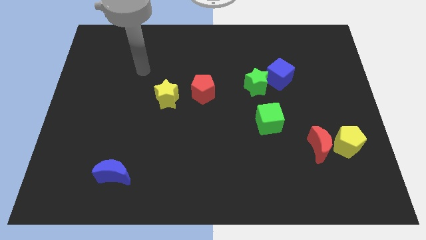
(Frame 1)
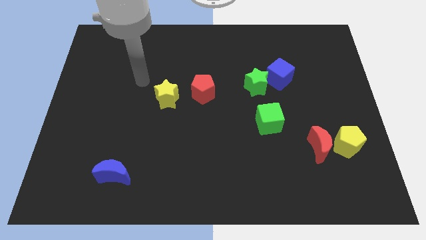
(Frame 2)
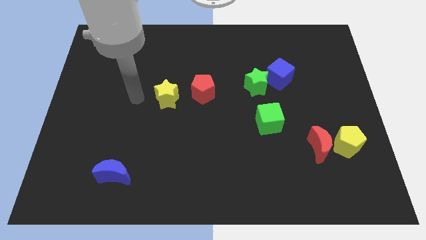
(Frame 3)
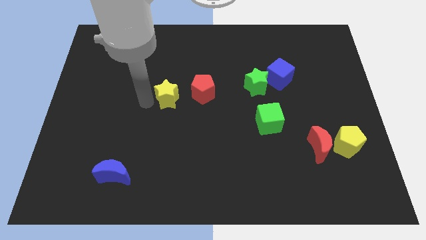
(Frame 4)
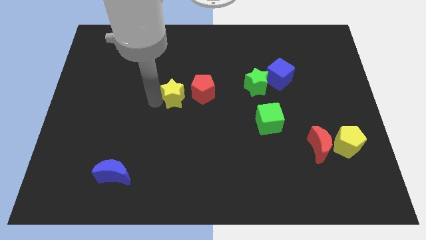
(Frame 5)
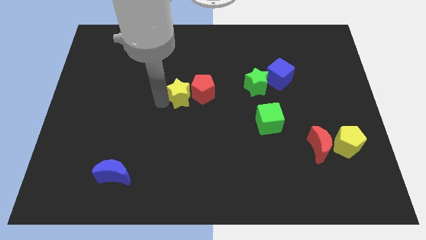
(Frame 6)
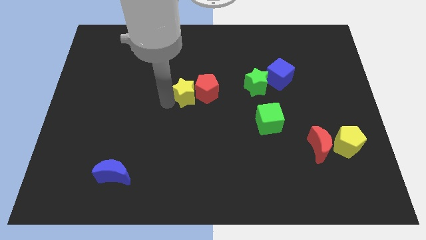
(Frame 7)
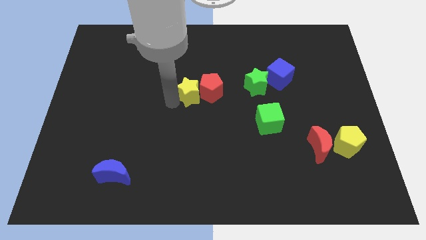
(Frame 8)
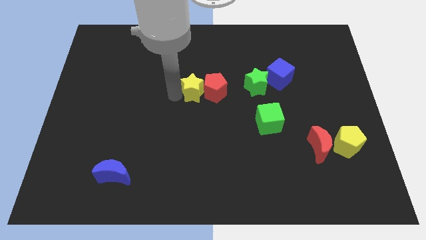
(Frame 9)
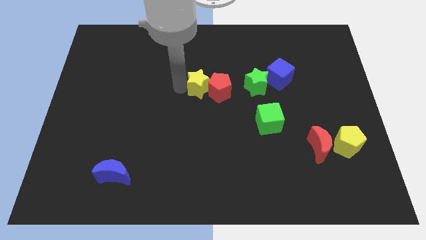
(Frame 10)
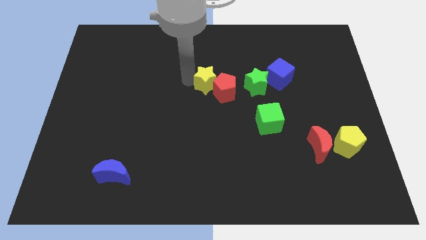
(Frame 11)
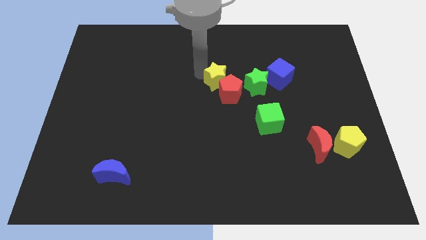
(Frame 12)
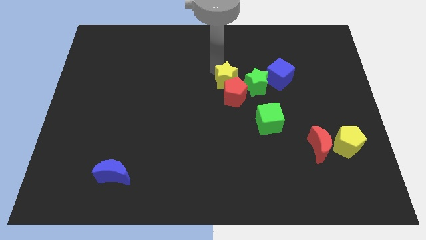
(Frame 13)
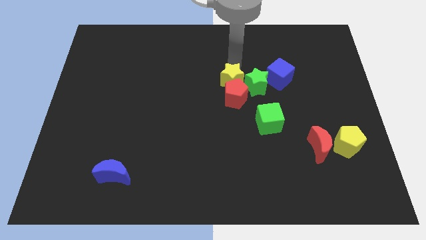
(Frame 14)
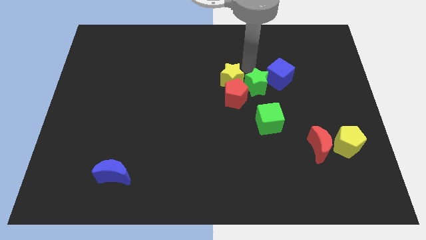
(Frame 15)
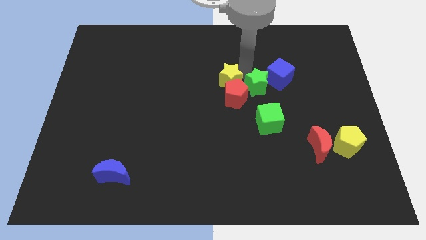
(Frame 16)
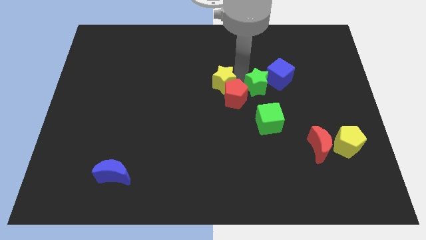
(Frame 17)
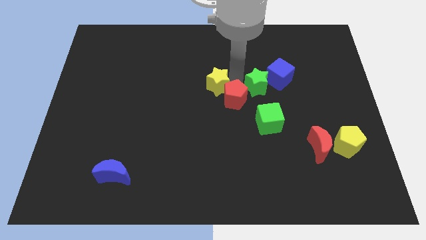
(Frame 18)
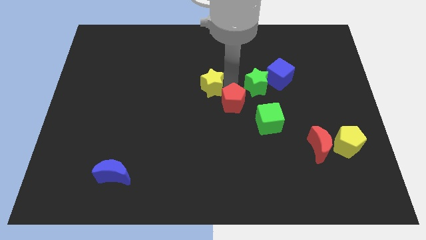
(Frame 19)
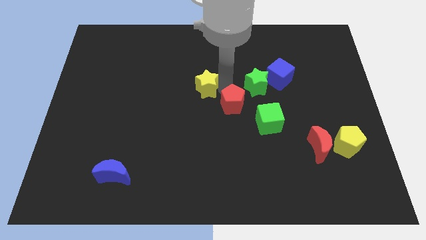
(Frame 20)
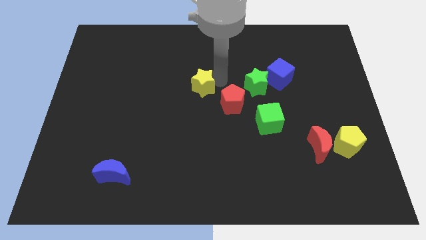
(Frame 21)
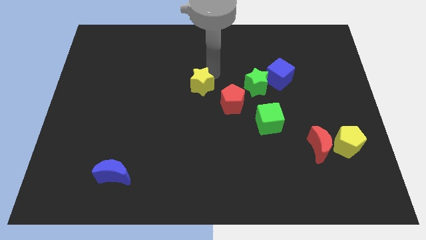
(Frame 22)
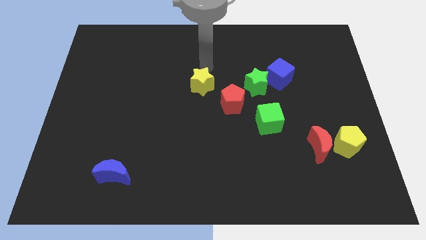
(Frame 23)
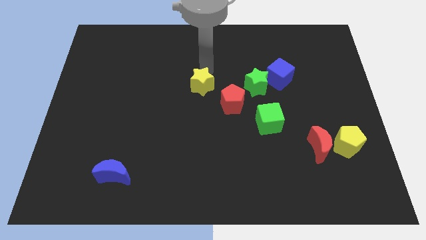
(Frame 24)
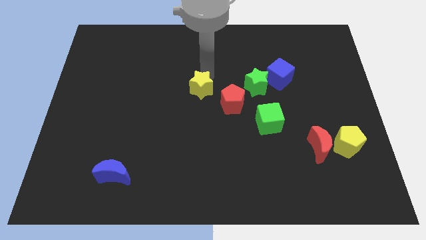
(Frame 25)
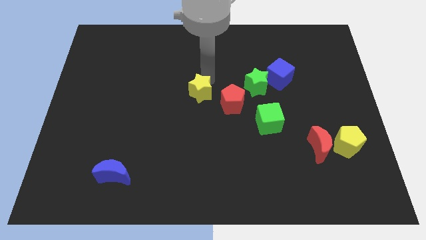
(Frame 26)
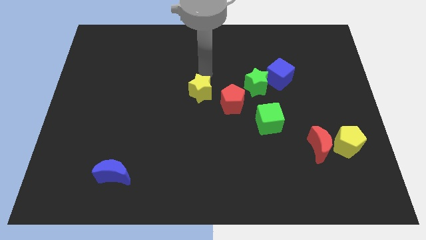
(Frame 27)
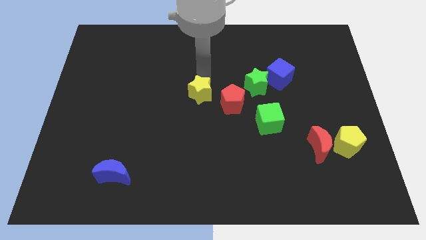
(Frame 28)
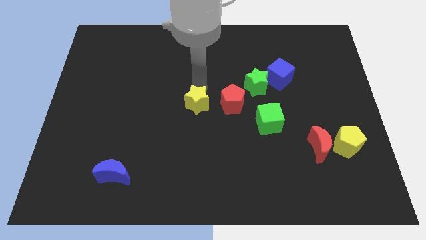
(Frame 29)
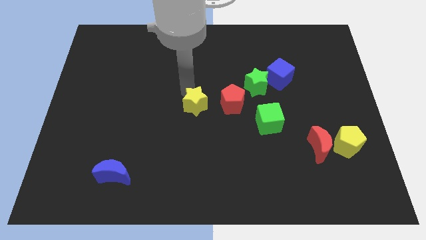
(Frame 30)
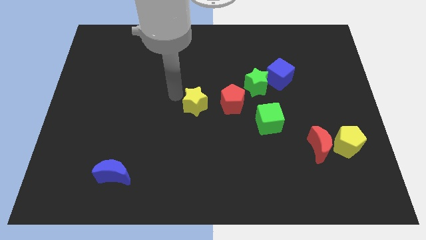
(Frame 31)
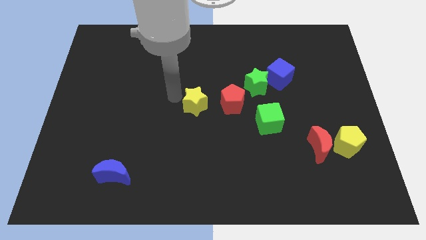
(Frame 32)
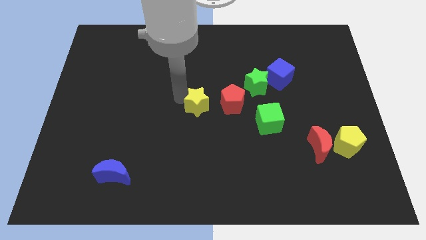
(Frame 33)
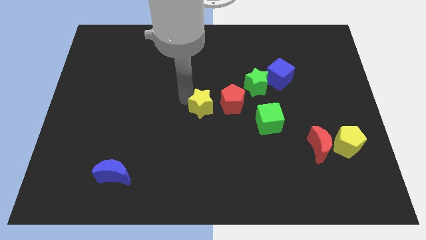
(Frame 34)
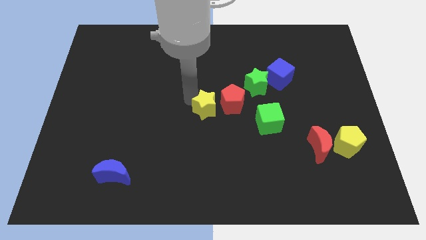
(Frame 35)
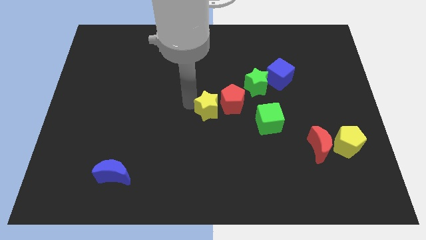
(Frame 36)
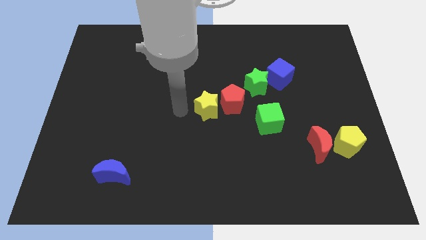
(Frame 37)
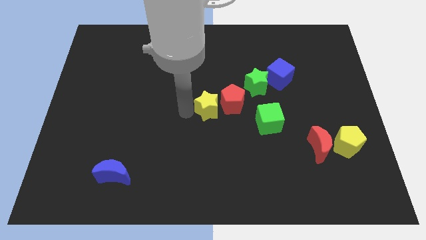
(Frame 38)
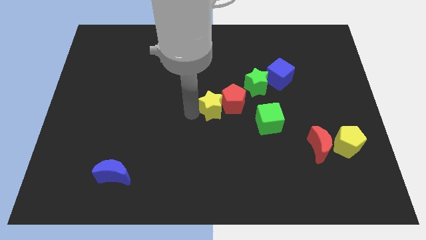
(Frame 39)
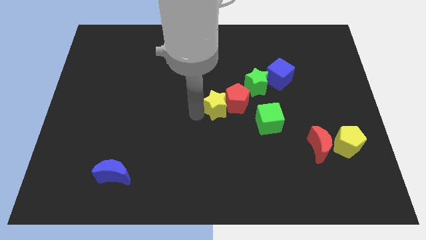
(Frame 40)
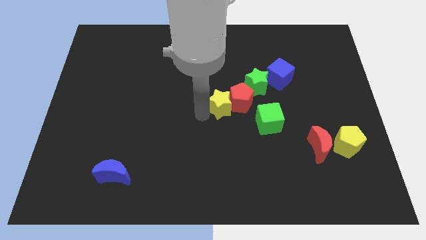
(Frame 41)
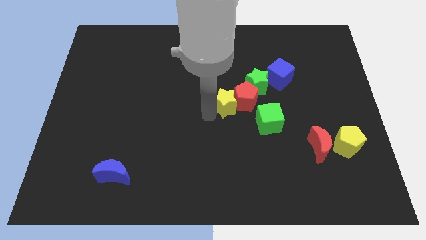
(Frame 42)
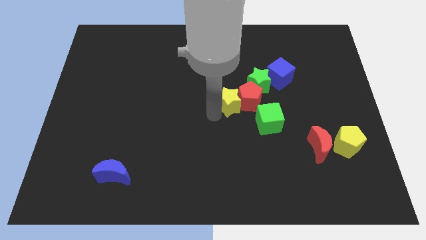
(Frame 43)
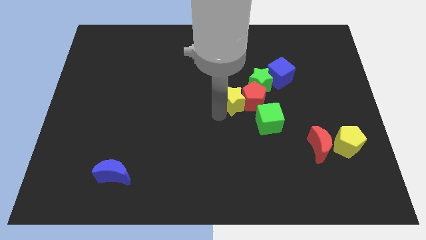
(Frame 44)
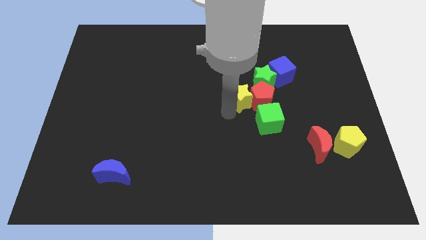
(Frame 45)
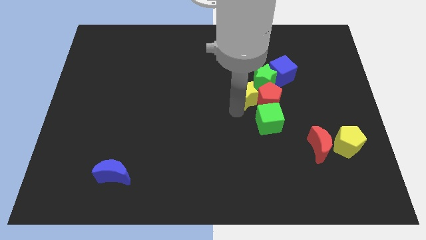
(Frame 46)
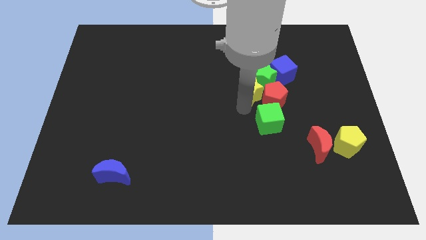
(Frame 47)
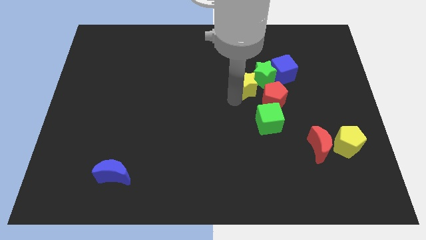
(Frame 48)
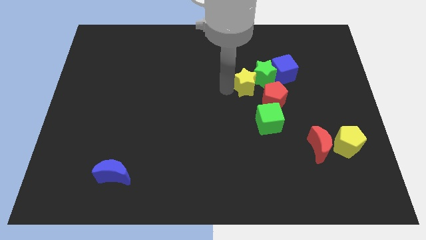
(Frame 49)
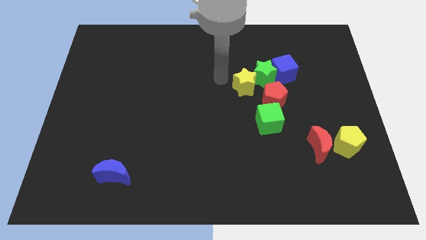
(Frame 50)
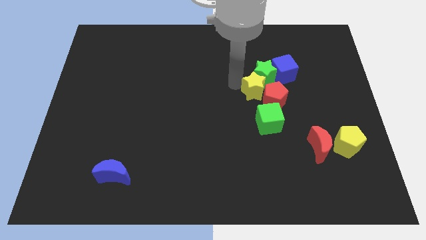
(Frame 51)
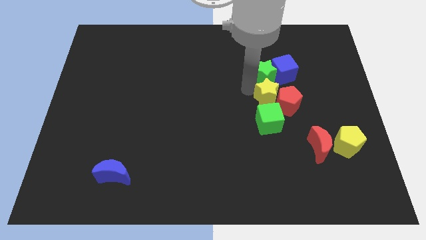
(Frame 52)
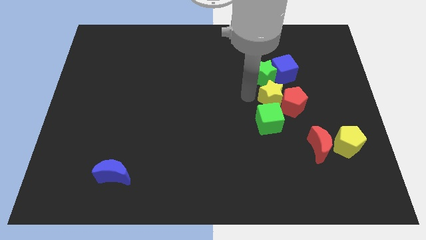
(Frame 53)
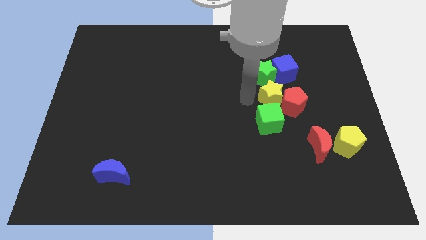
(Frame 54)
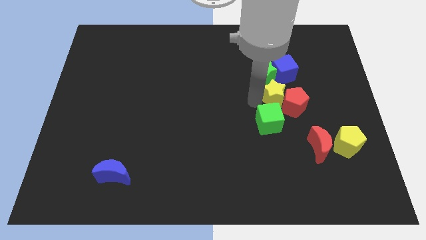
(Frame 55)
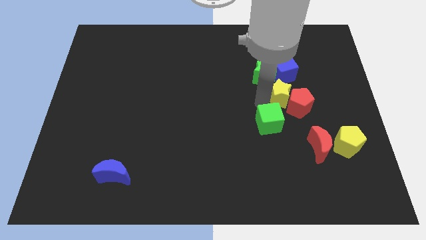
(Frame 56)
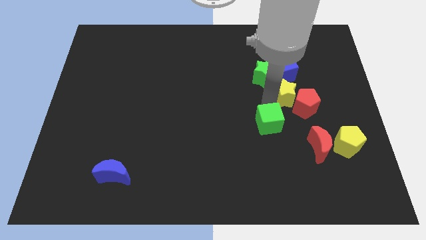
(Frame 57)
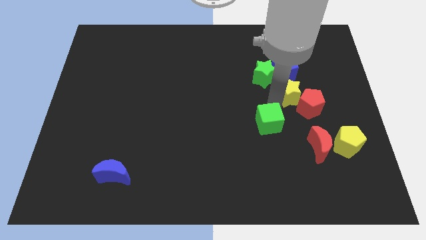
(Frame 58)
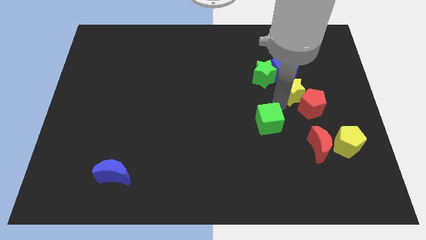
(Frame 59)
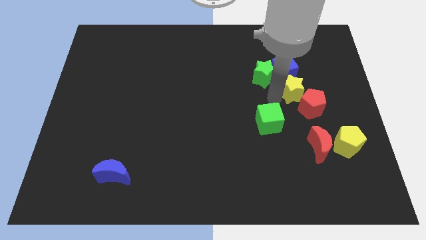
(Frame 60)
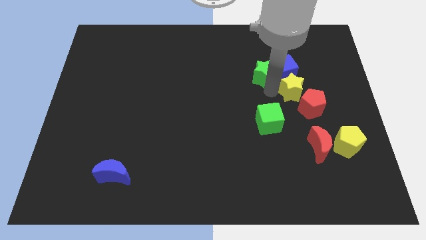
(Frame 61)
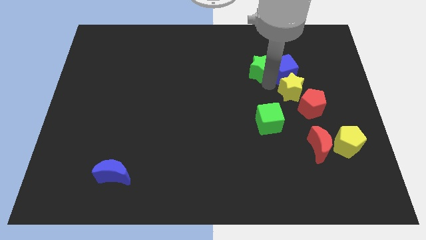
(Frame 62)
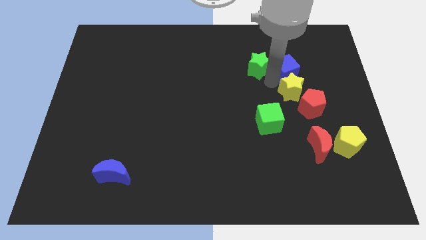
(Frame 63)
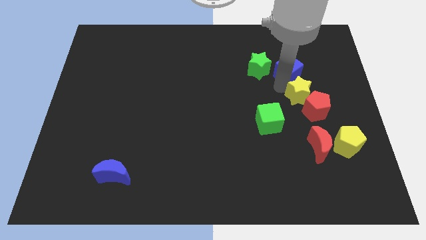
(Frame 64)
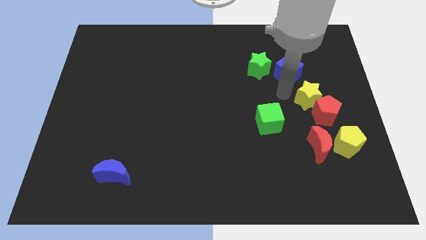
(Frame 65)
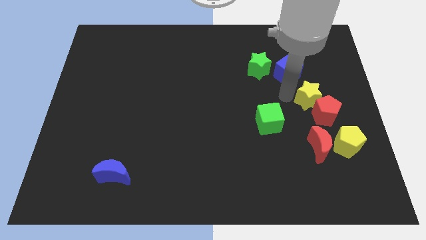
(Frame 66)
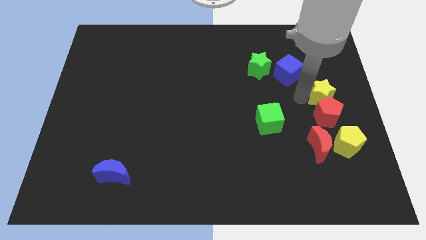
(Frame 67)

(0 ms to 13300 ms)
slide the yellow star to the right side of the board

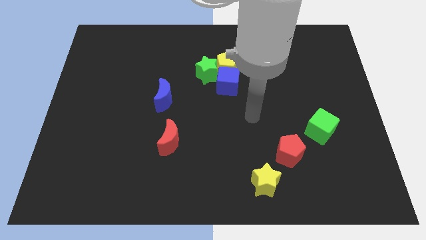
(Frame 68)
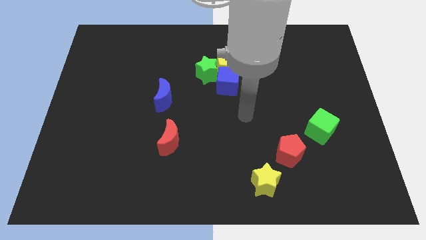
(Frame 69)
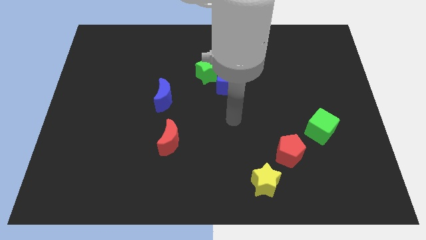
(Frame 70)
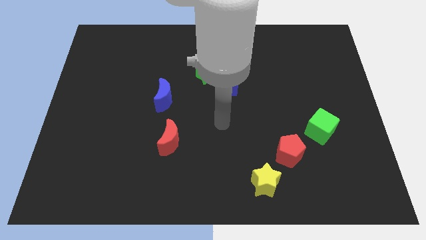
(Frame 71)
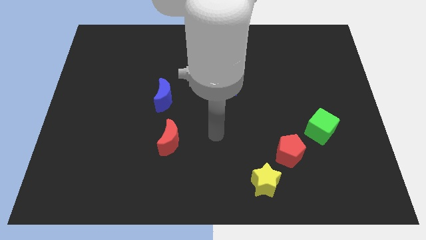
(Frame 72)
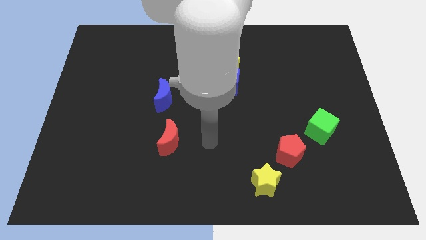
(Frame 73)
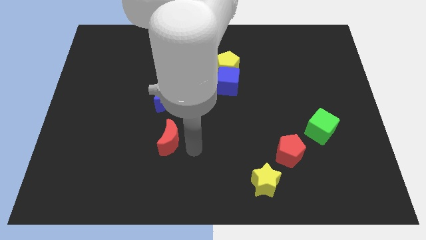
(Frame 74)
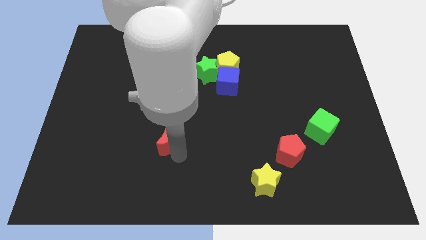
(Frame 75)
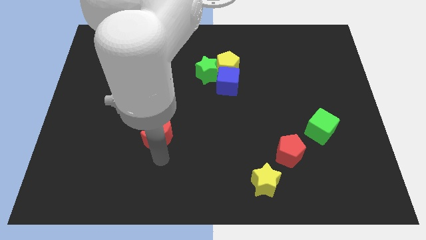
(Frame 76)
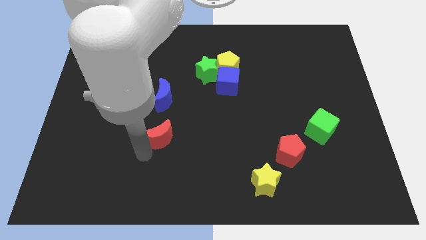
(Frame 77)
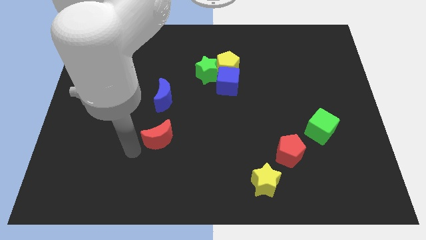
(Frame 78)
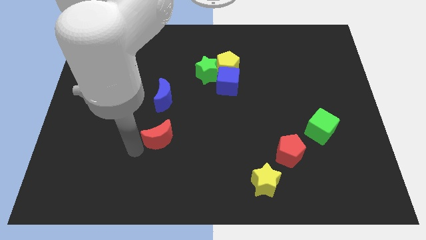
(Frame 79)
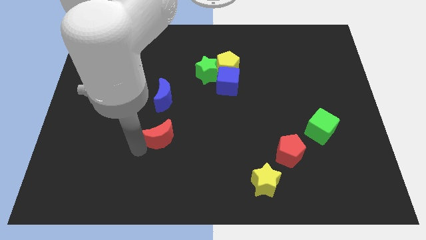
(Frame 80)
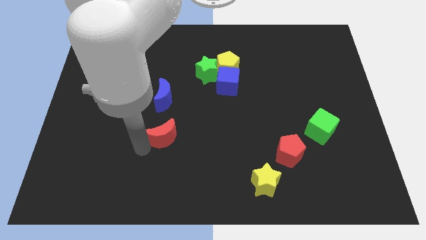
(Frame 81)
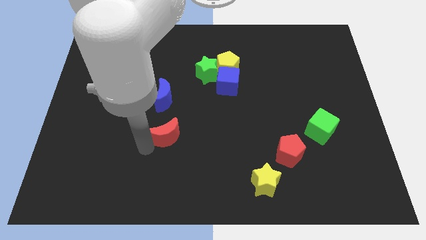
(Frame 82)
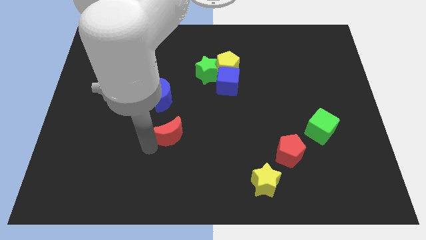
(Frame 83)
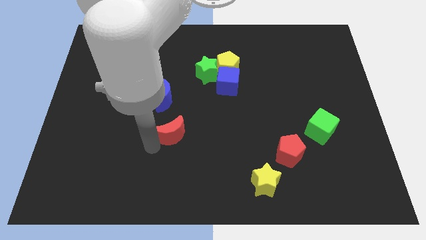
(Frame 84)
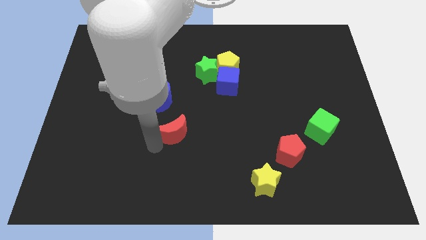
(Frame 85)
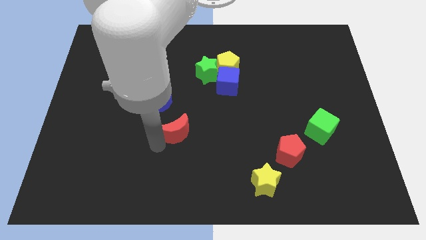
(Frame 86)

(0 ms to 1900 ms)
put the red moon to the middle of the board
